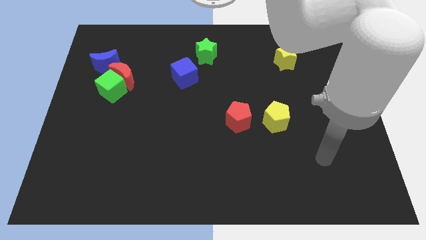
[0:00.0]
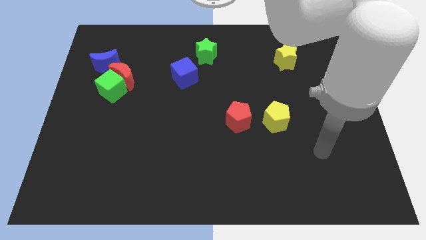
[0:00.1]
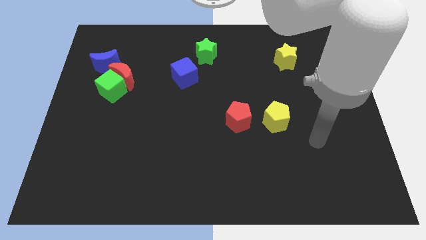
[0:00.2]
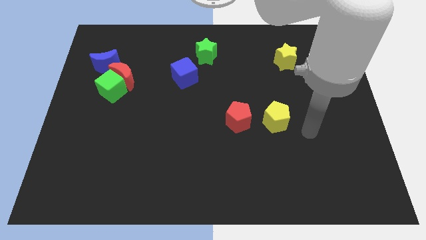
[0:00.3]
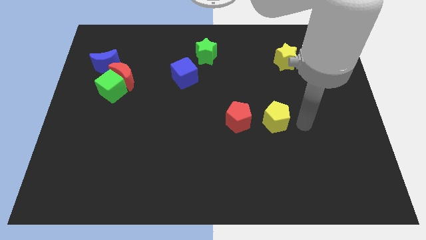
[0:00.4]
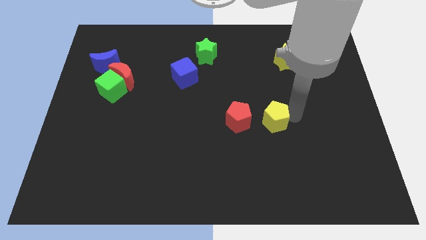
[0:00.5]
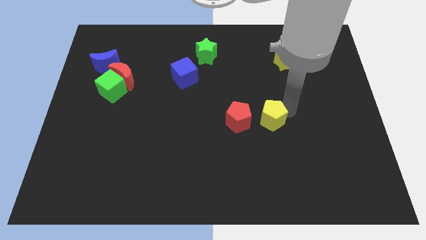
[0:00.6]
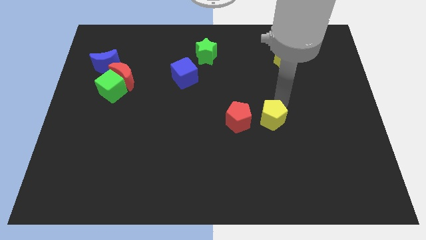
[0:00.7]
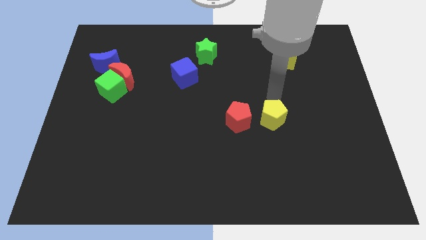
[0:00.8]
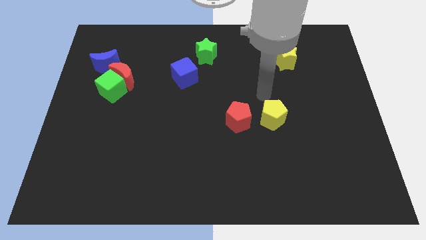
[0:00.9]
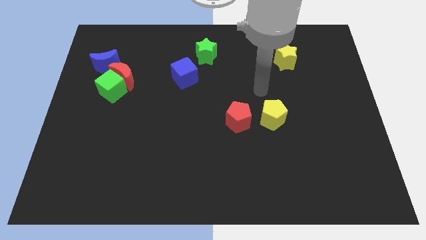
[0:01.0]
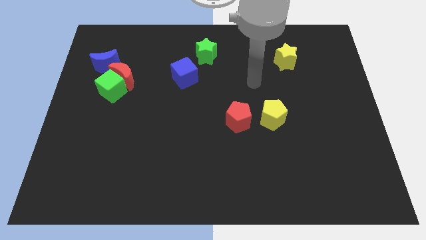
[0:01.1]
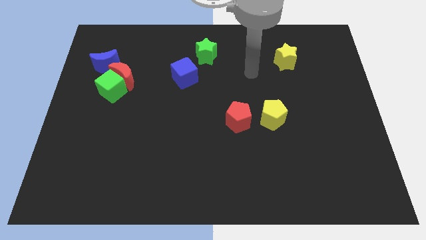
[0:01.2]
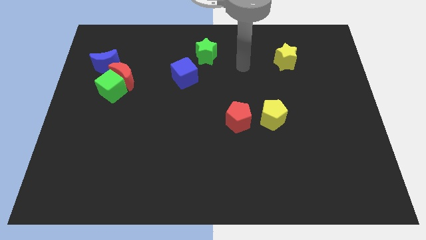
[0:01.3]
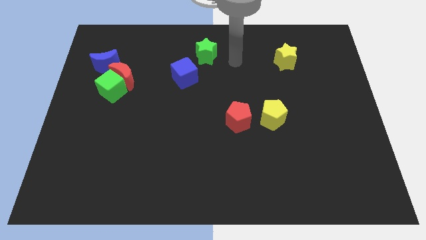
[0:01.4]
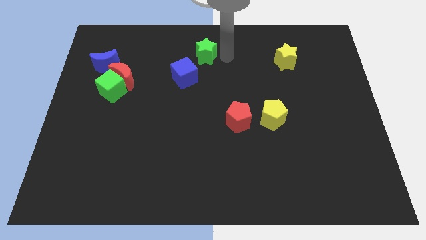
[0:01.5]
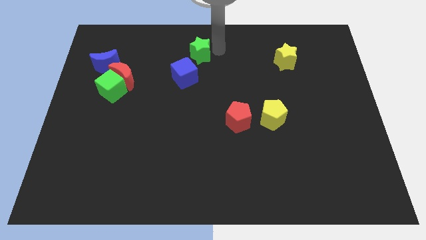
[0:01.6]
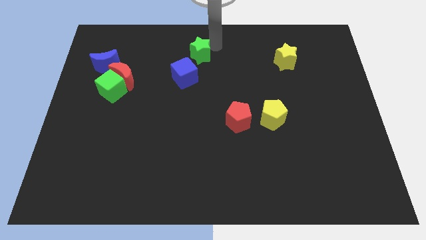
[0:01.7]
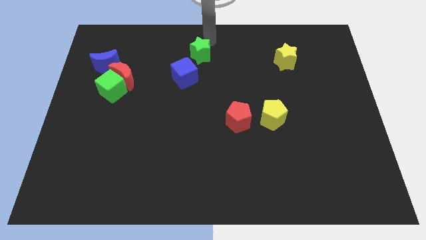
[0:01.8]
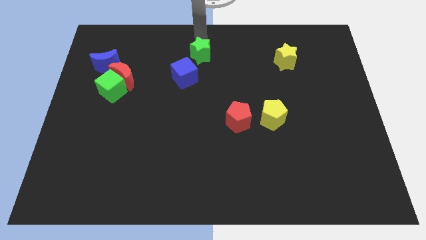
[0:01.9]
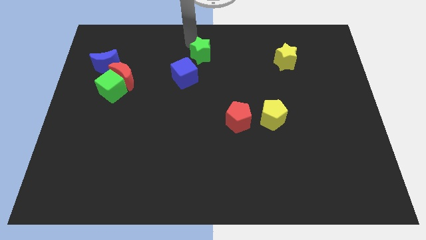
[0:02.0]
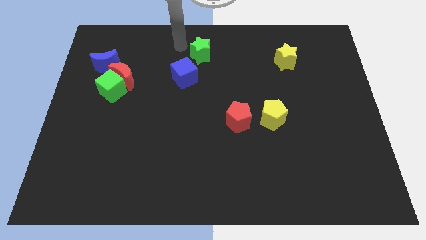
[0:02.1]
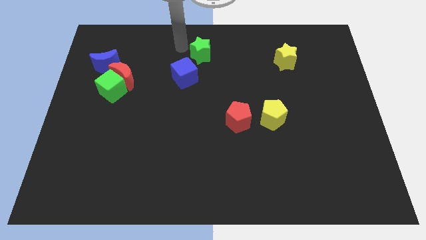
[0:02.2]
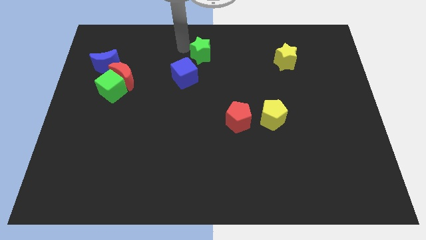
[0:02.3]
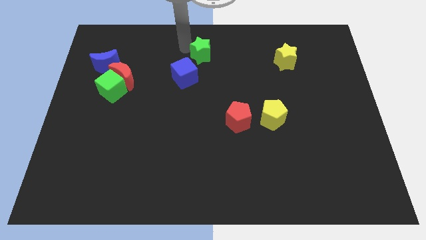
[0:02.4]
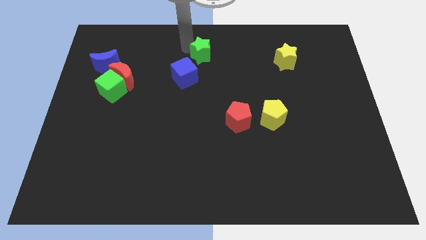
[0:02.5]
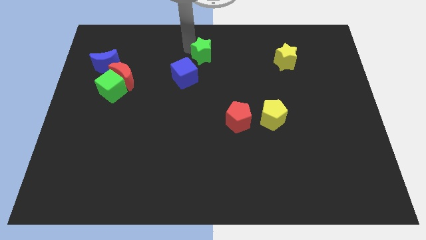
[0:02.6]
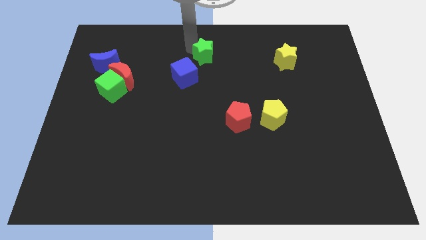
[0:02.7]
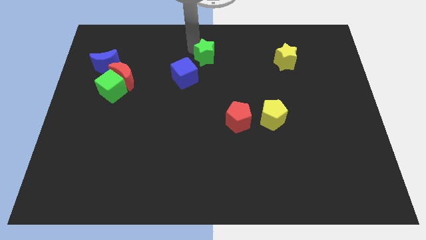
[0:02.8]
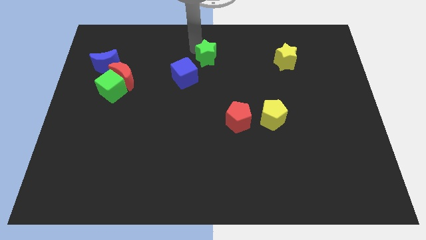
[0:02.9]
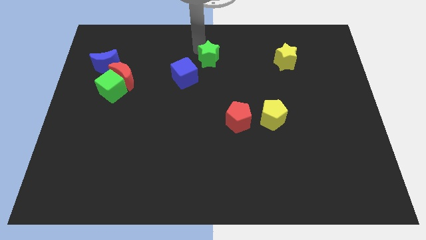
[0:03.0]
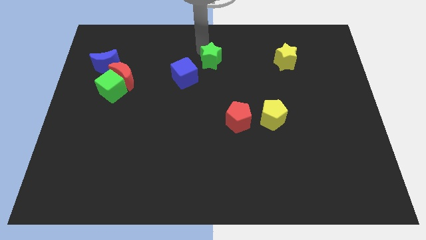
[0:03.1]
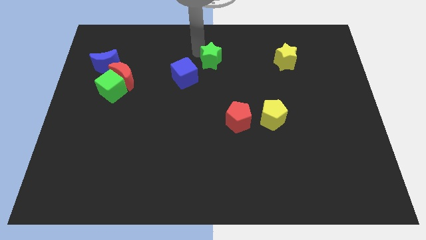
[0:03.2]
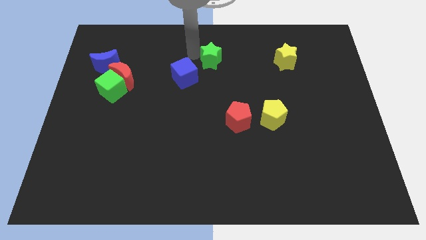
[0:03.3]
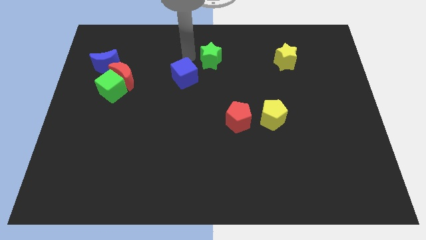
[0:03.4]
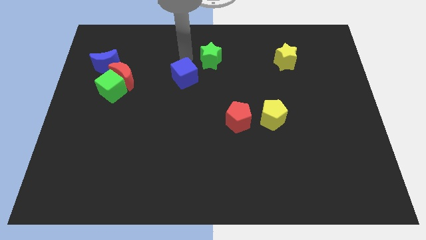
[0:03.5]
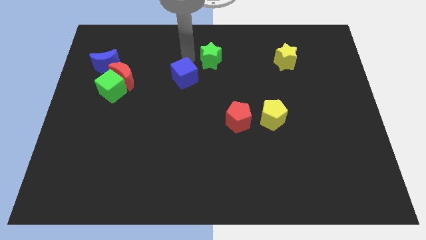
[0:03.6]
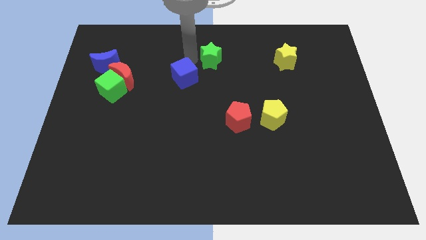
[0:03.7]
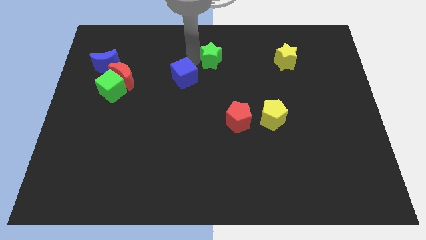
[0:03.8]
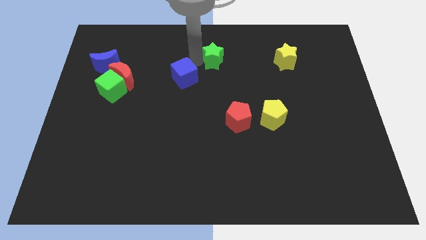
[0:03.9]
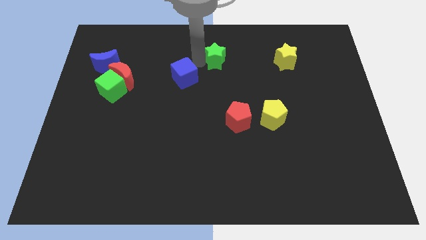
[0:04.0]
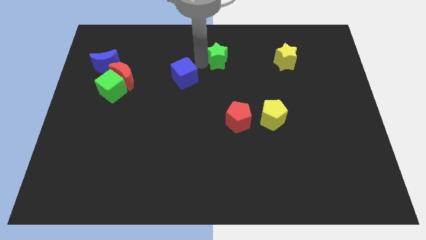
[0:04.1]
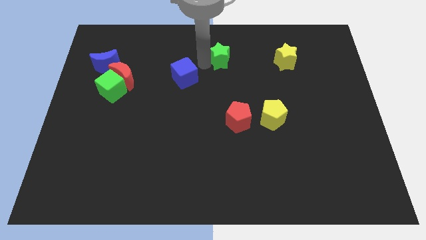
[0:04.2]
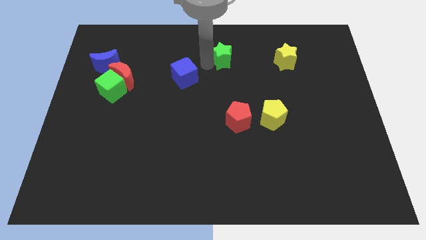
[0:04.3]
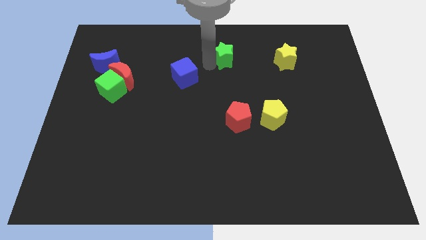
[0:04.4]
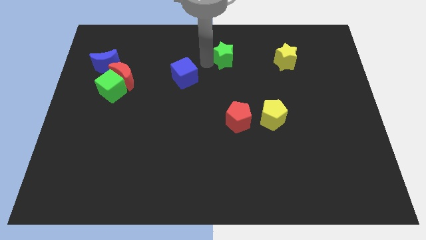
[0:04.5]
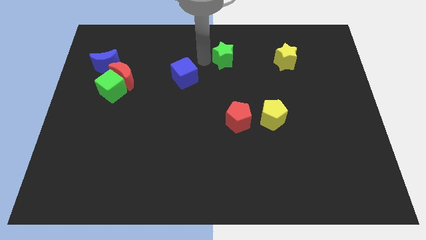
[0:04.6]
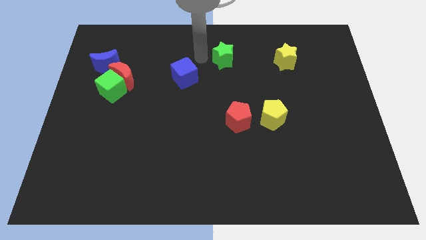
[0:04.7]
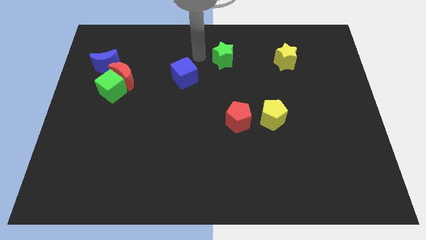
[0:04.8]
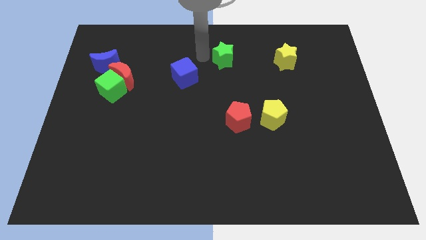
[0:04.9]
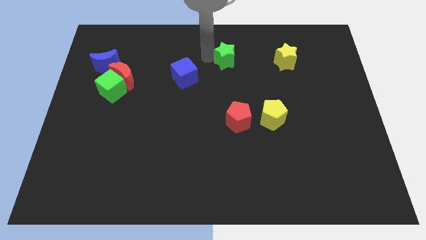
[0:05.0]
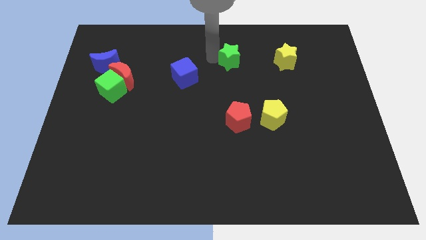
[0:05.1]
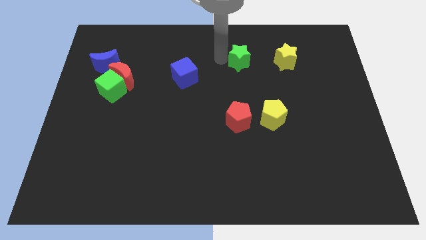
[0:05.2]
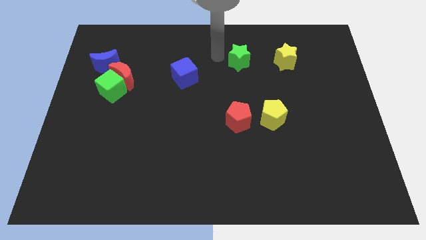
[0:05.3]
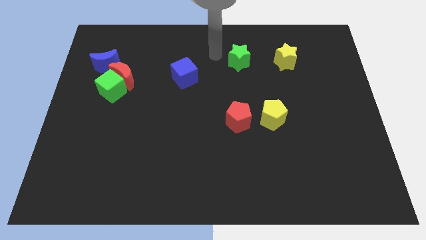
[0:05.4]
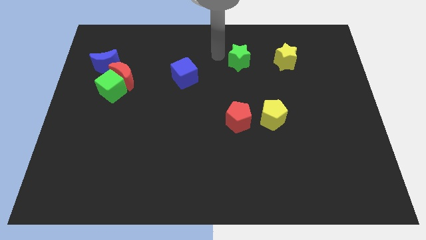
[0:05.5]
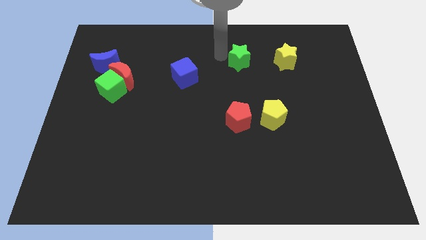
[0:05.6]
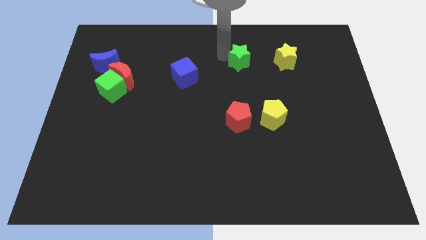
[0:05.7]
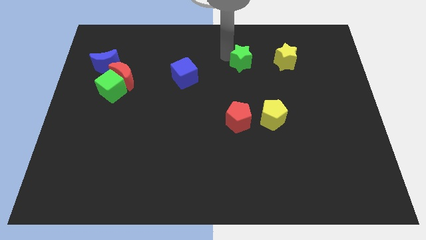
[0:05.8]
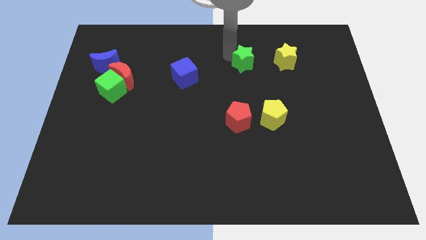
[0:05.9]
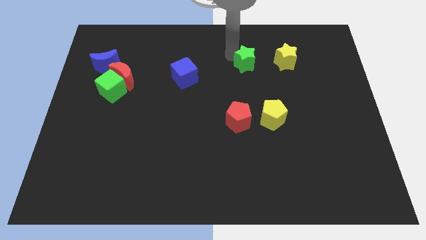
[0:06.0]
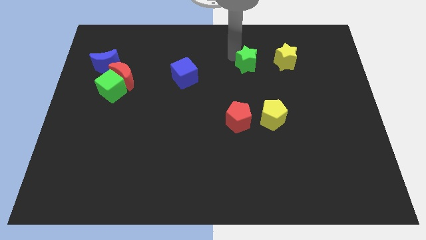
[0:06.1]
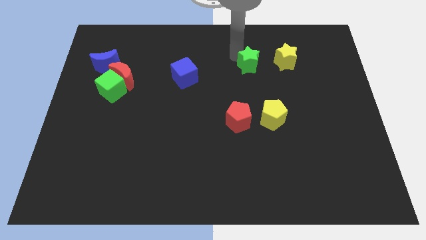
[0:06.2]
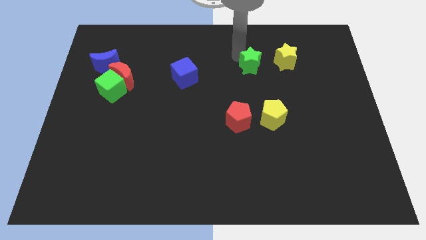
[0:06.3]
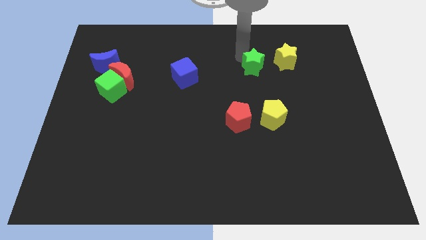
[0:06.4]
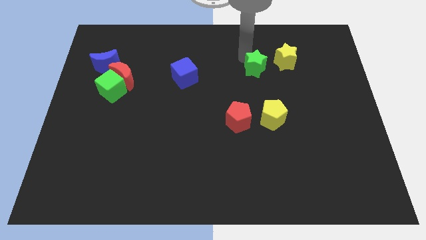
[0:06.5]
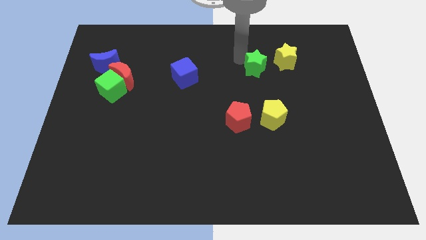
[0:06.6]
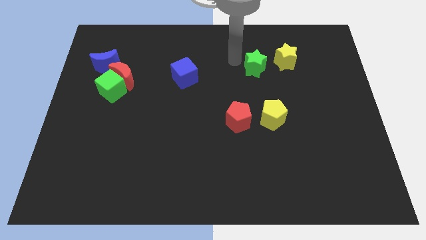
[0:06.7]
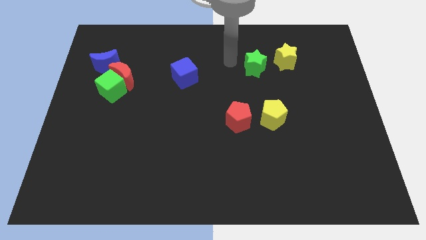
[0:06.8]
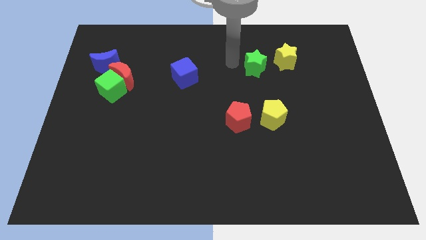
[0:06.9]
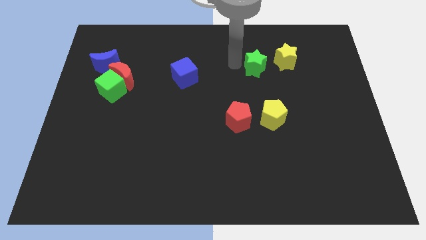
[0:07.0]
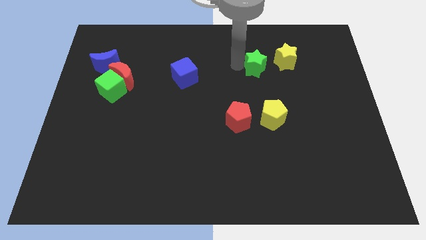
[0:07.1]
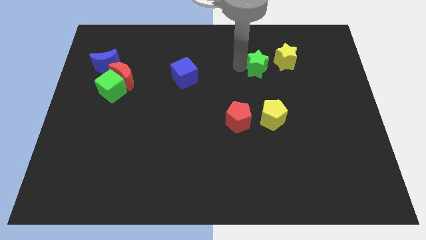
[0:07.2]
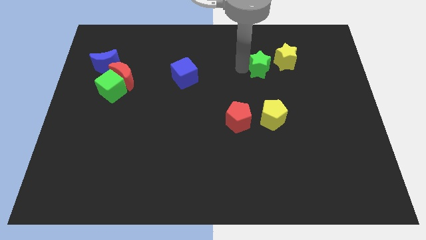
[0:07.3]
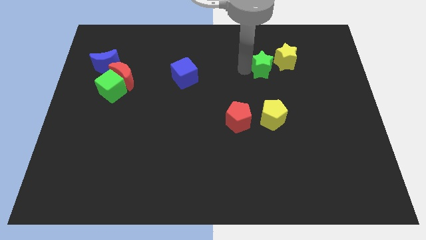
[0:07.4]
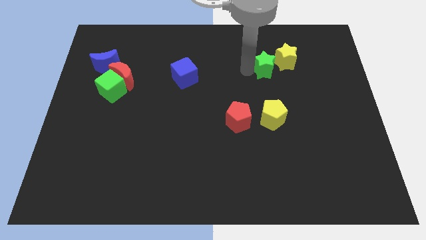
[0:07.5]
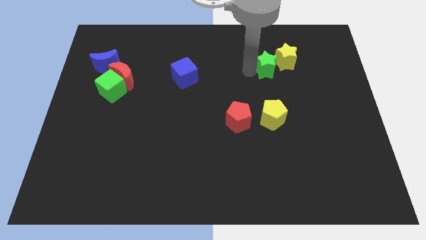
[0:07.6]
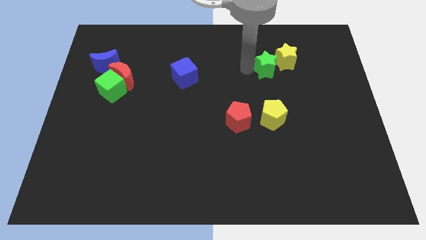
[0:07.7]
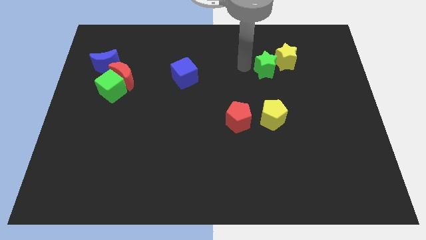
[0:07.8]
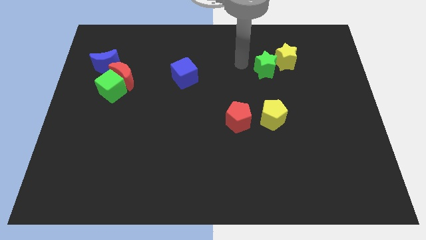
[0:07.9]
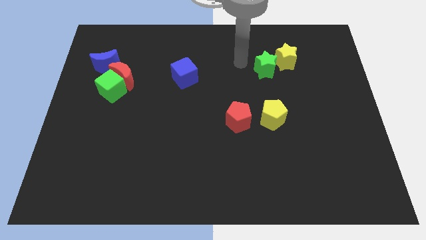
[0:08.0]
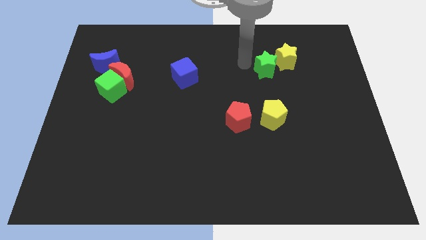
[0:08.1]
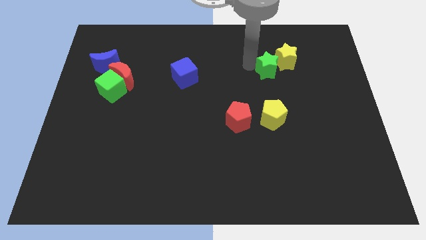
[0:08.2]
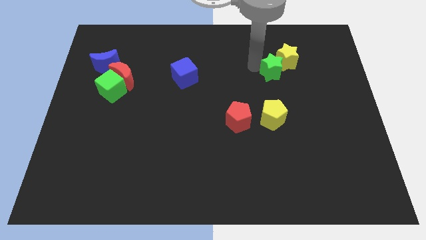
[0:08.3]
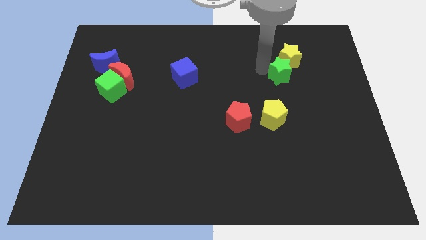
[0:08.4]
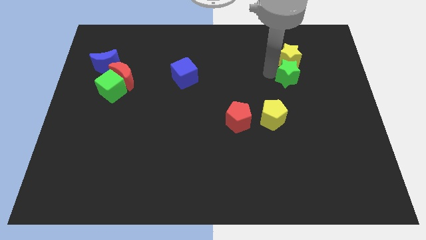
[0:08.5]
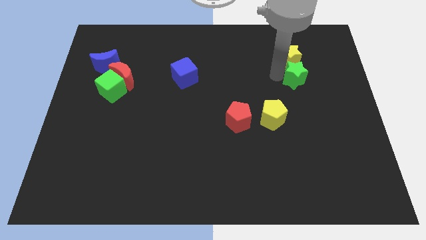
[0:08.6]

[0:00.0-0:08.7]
move the green star diagonally down and to the right of the yellow star
